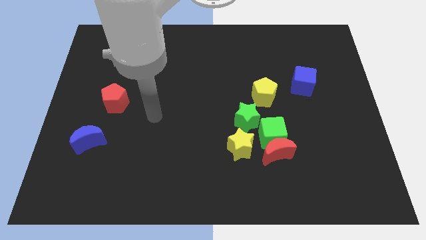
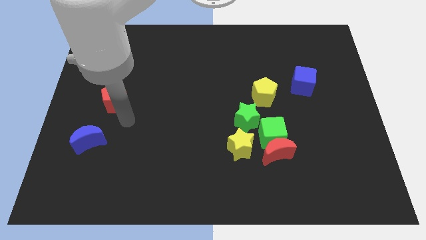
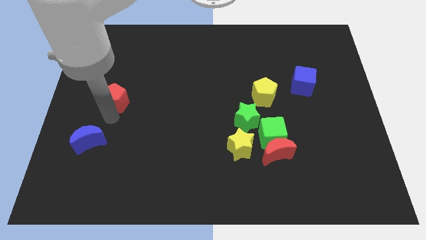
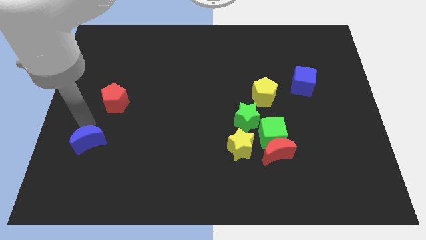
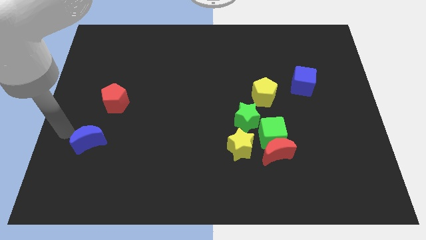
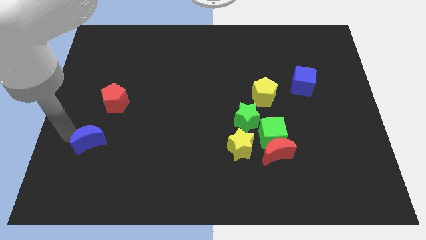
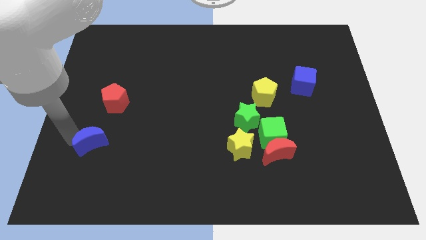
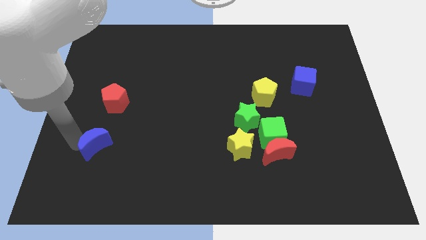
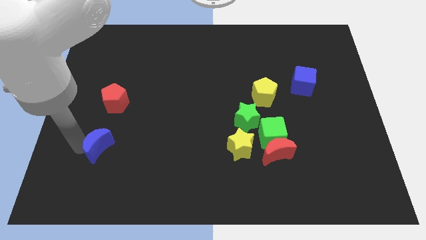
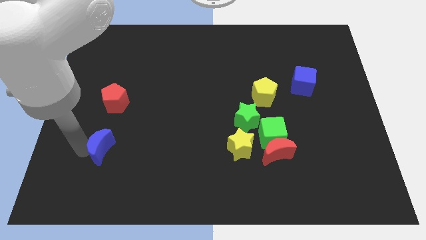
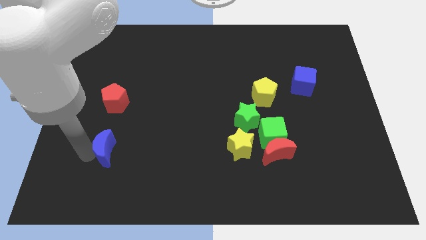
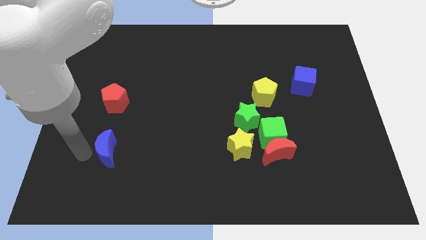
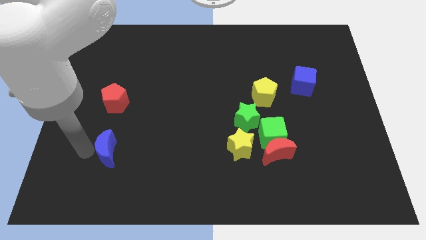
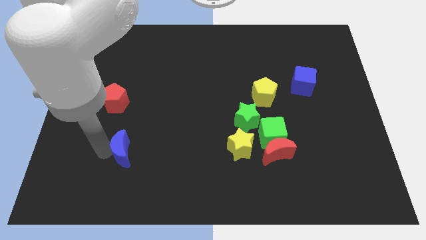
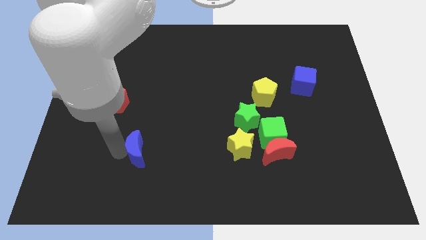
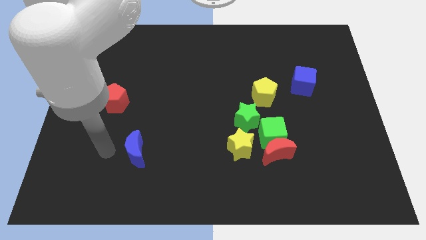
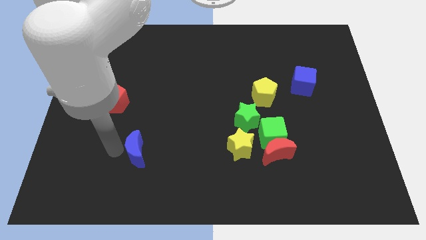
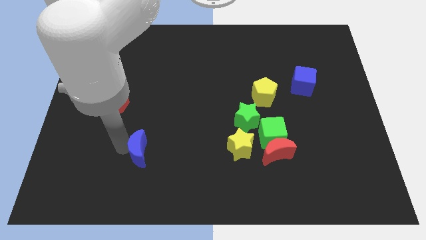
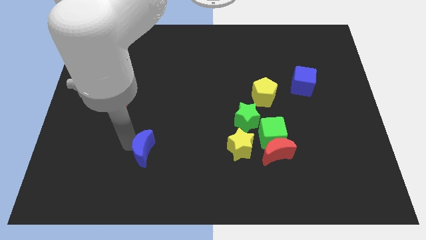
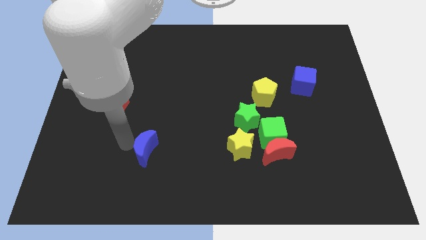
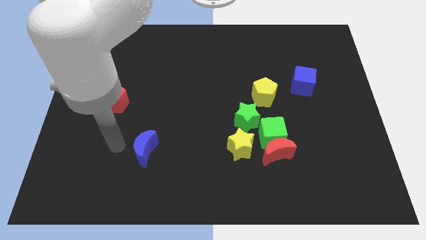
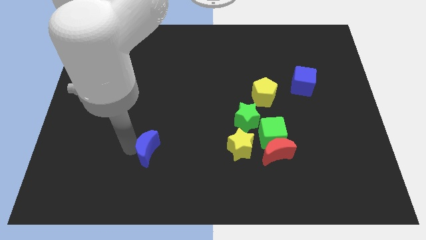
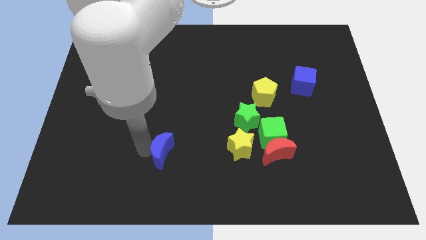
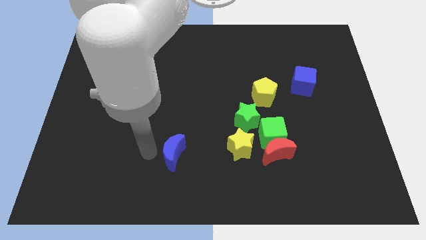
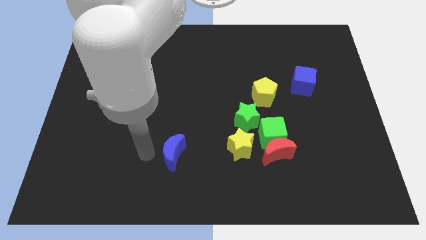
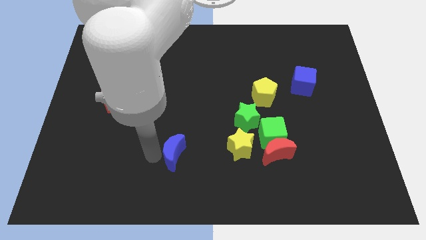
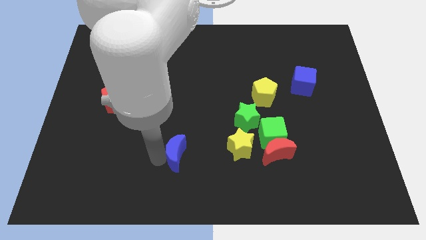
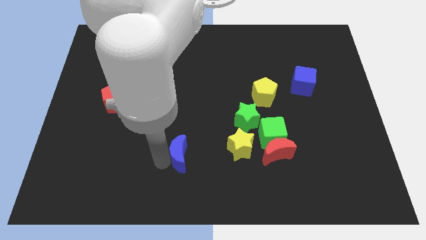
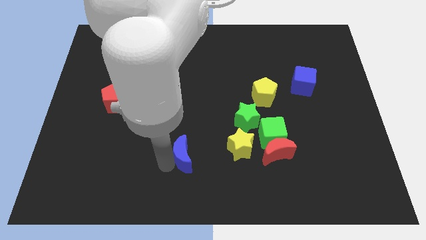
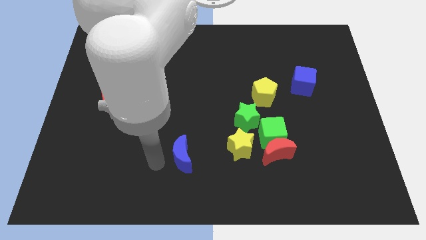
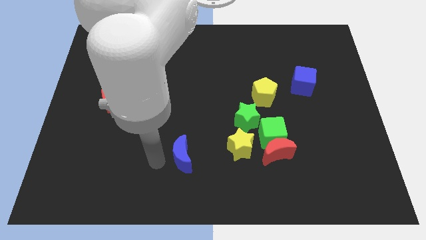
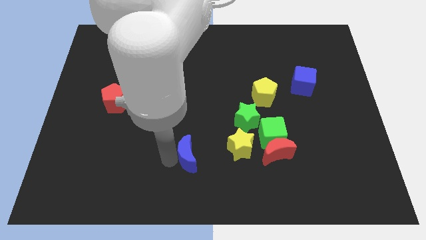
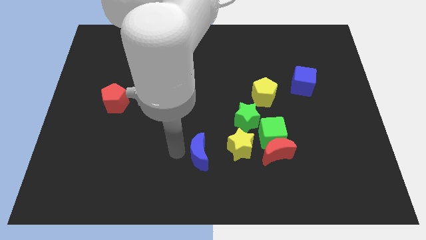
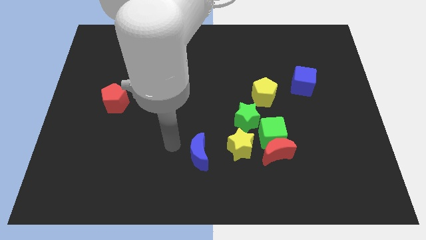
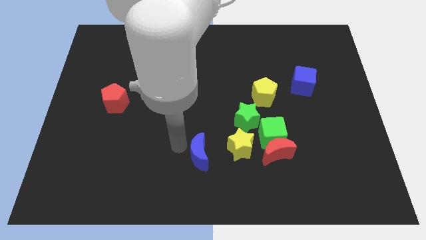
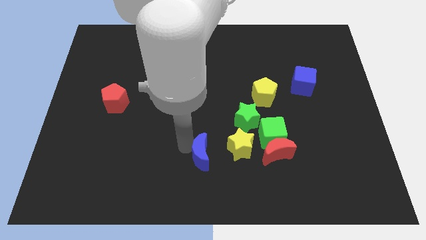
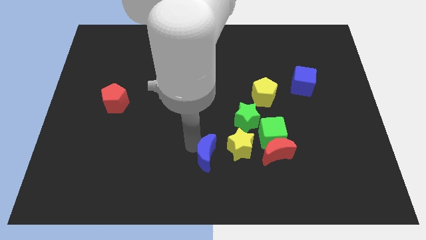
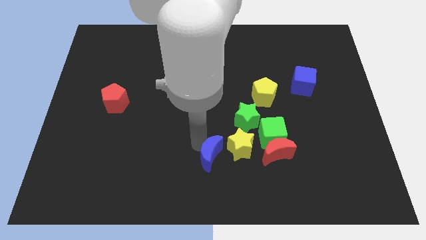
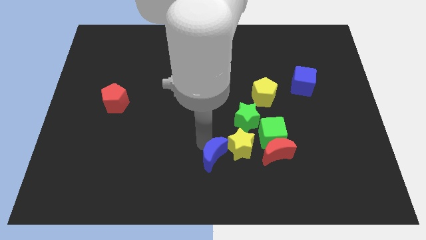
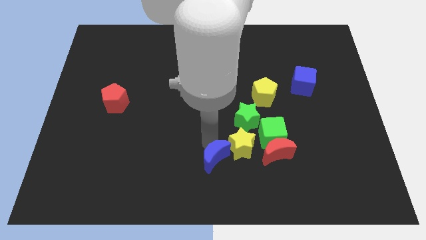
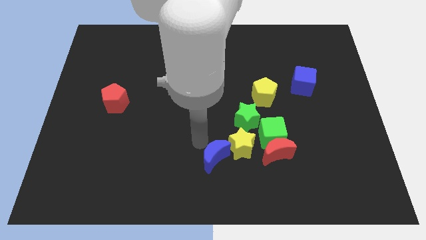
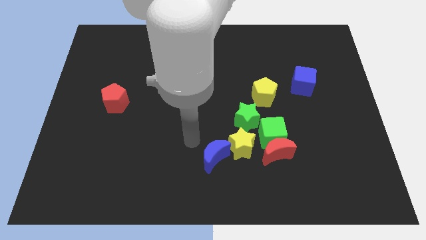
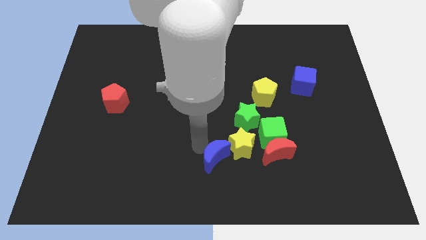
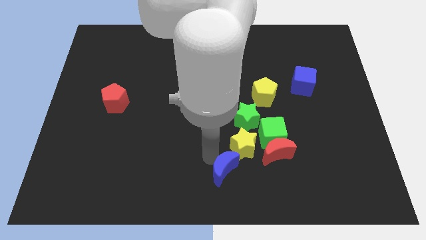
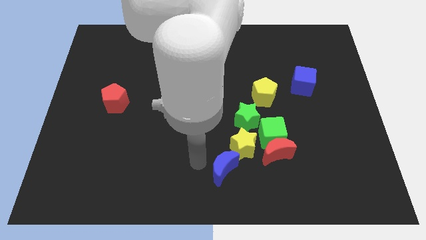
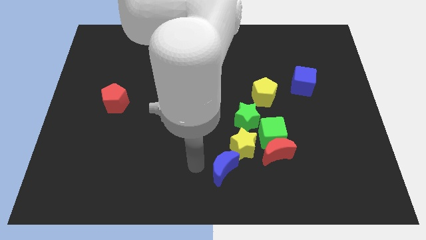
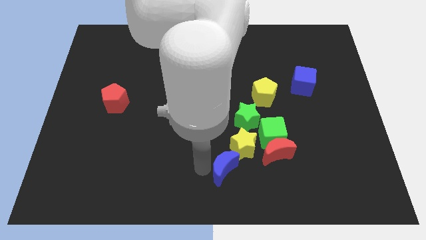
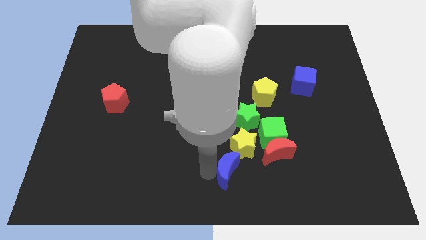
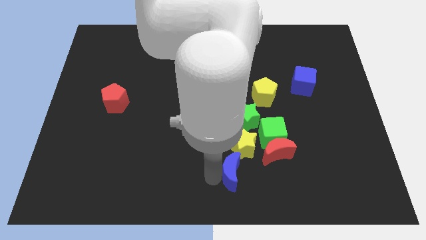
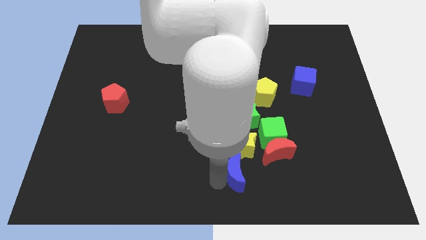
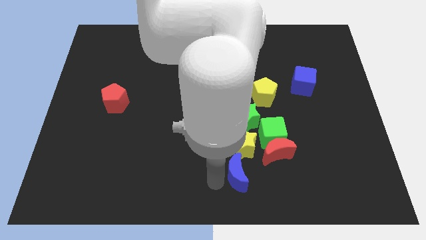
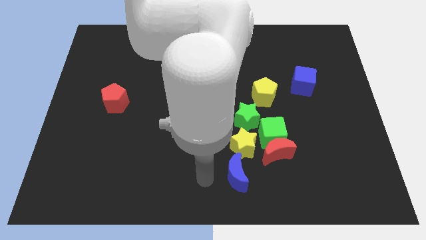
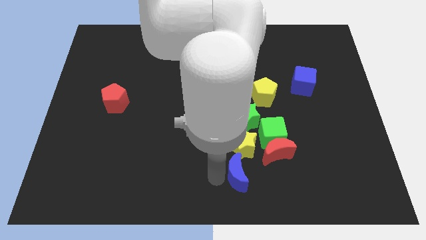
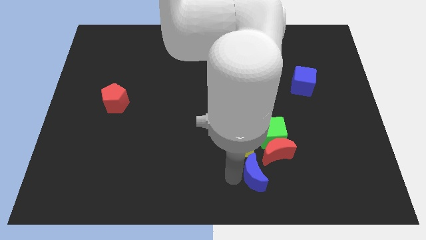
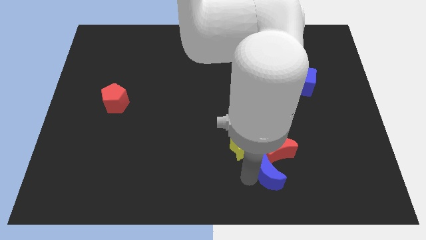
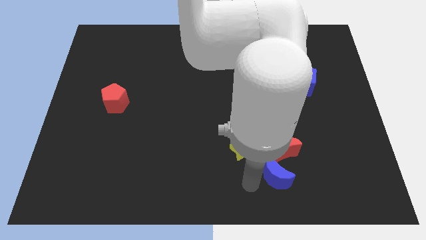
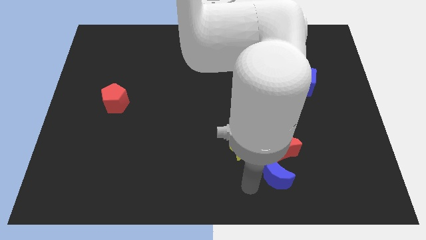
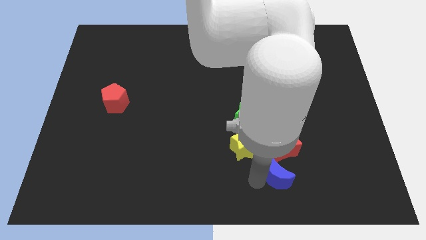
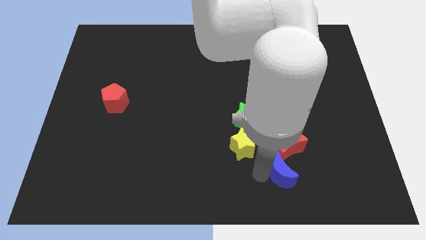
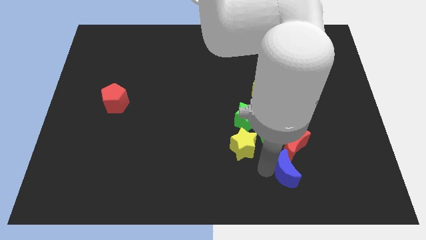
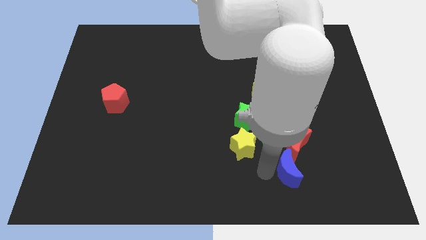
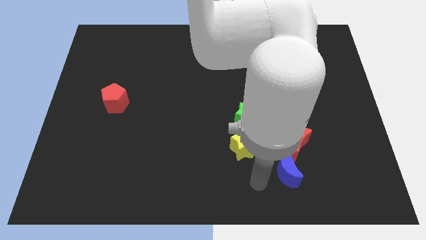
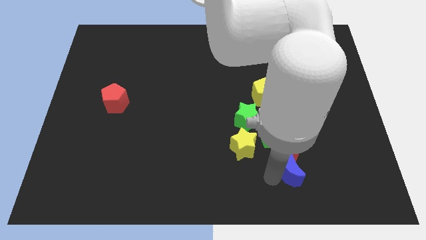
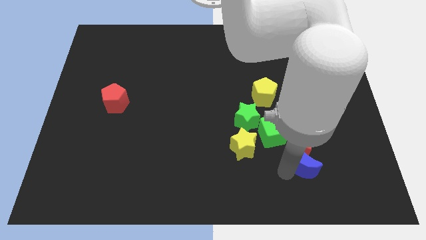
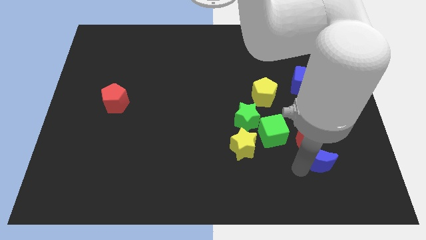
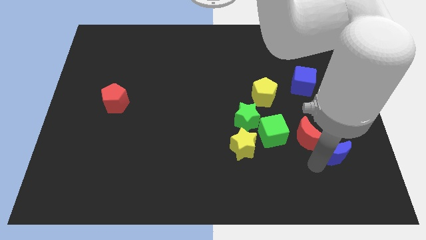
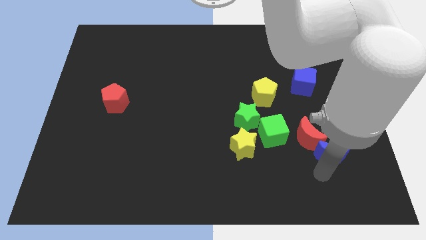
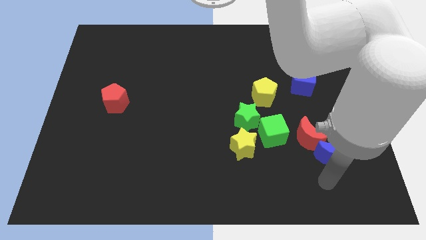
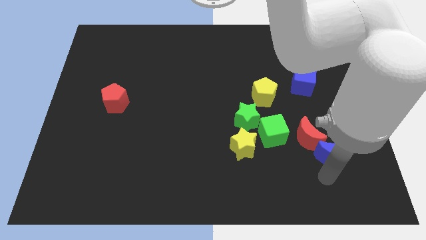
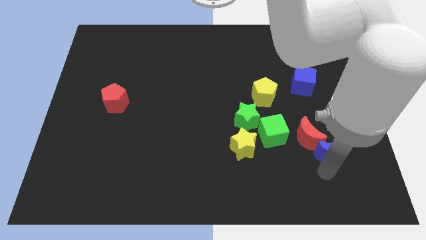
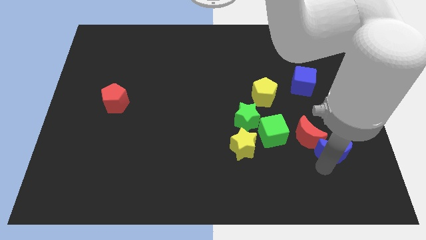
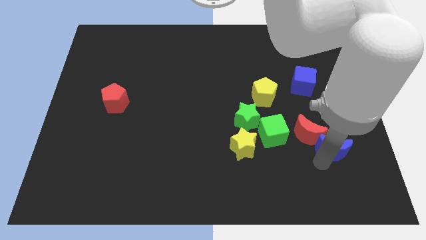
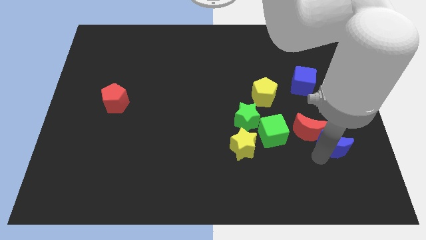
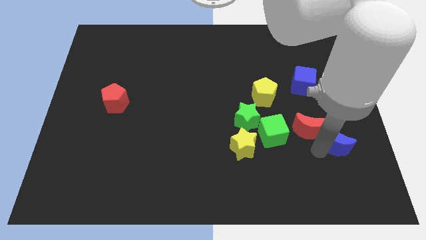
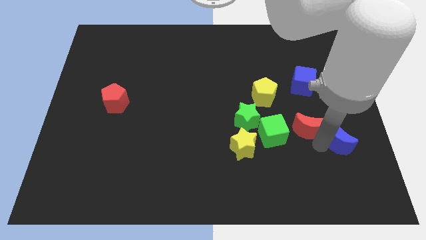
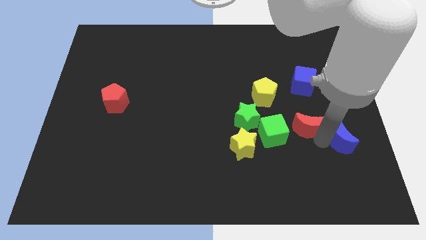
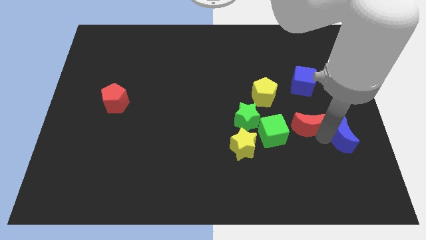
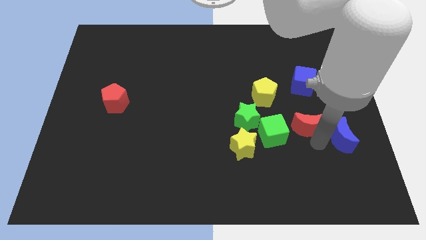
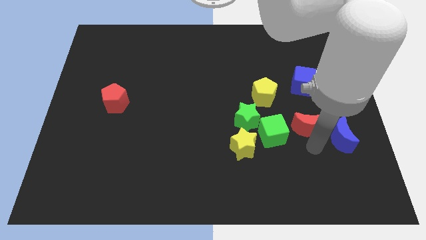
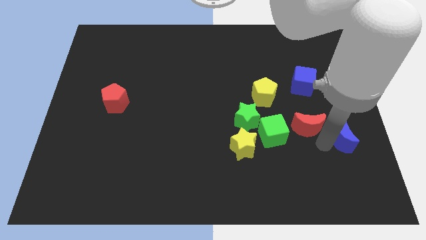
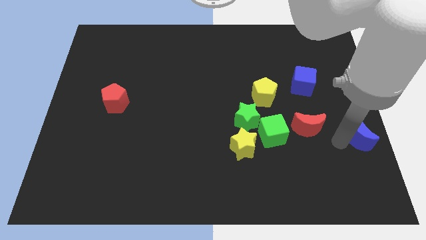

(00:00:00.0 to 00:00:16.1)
move the blue moon to the right side of the board
